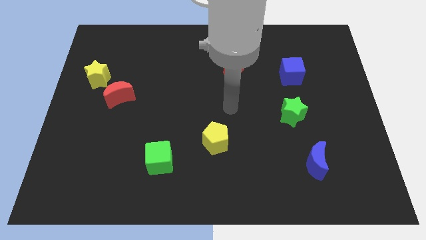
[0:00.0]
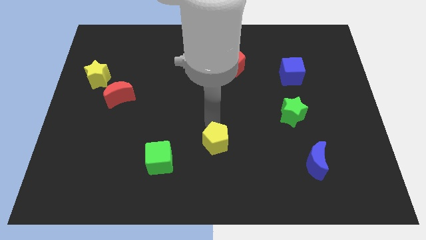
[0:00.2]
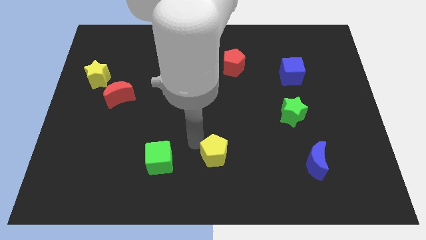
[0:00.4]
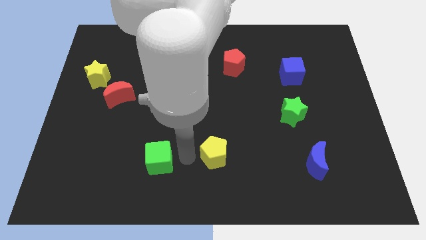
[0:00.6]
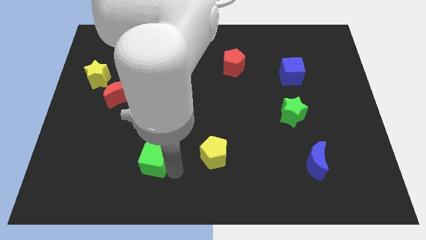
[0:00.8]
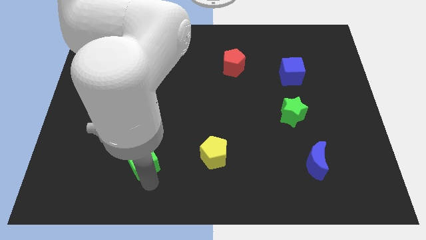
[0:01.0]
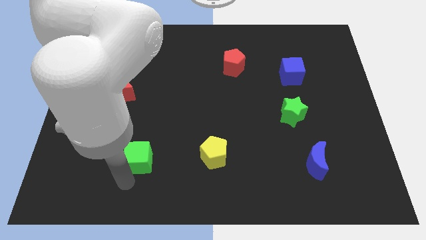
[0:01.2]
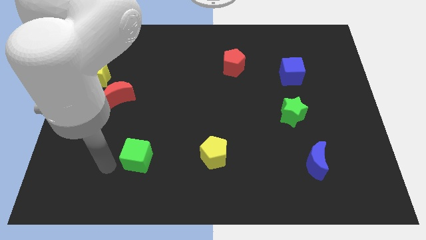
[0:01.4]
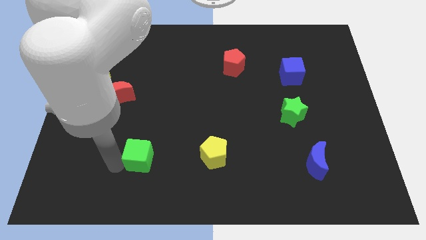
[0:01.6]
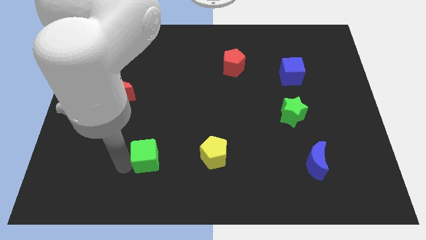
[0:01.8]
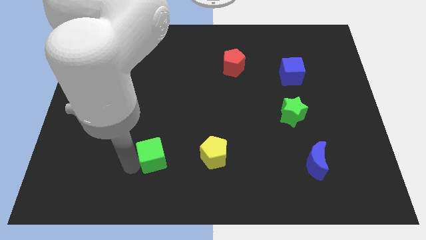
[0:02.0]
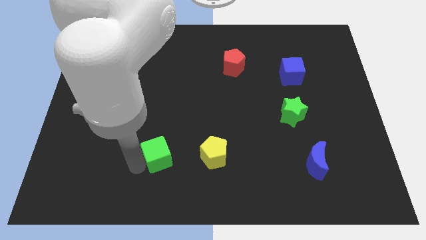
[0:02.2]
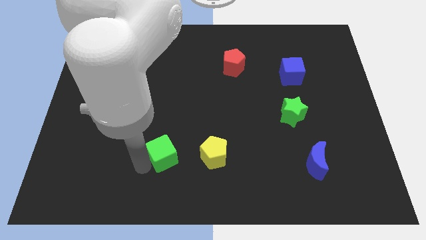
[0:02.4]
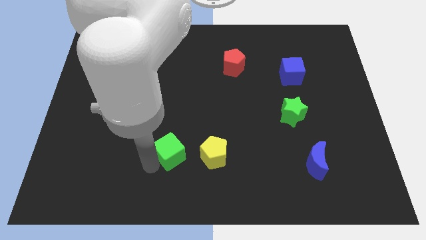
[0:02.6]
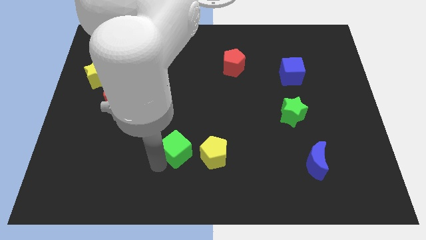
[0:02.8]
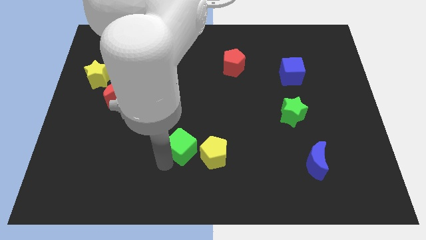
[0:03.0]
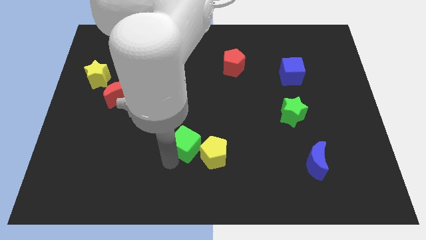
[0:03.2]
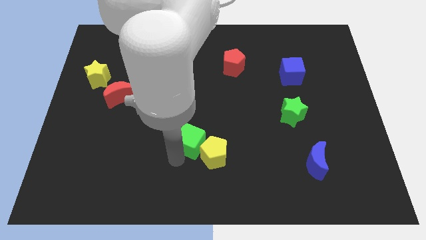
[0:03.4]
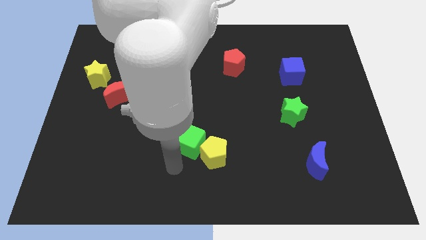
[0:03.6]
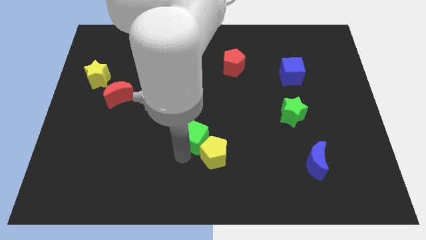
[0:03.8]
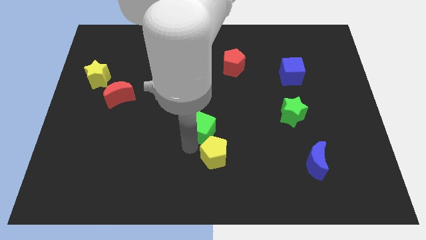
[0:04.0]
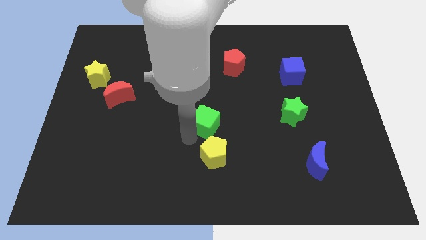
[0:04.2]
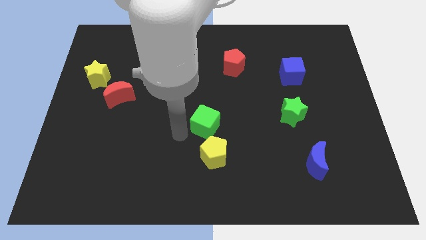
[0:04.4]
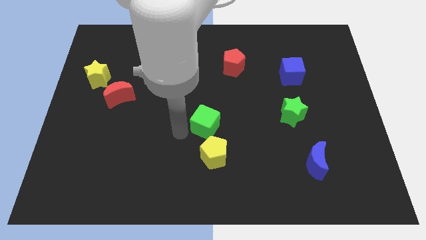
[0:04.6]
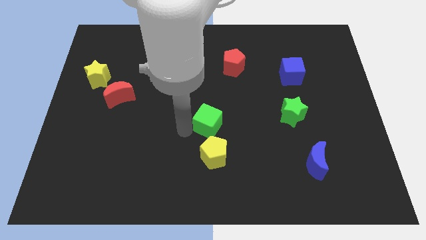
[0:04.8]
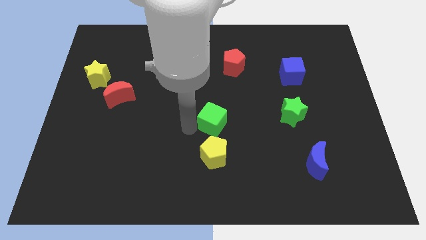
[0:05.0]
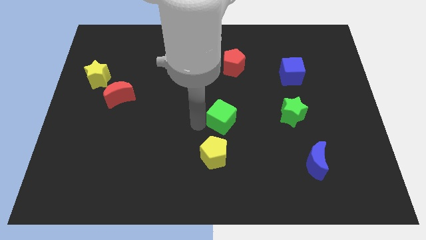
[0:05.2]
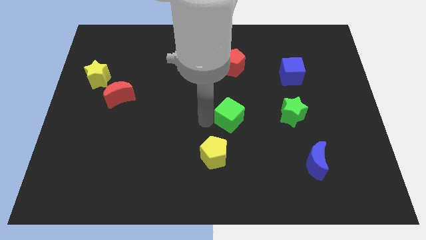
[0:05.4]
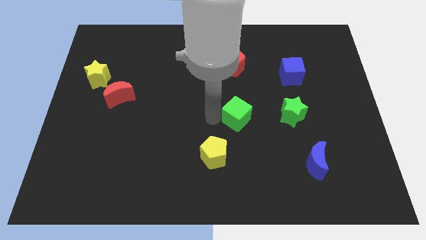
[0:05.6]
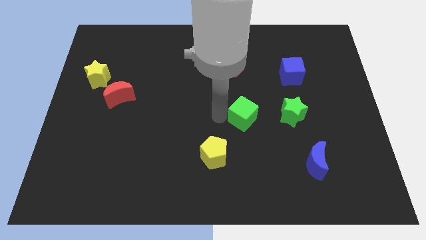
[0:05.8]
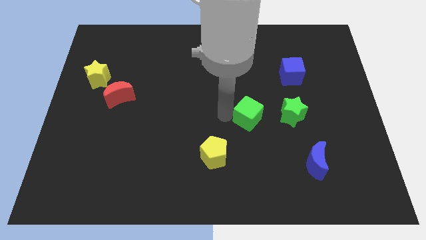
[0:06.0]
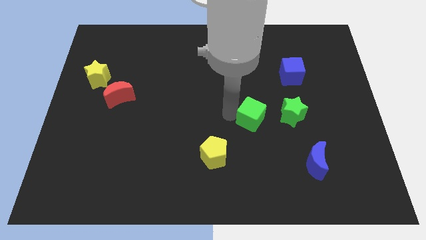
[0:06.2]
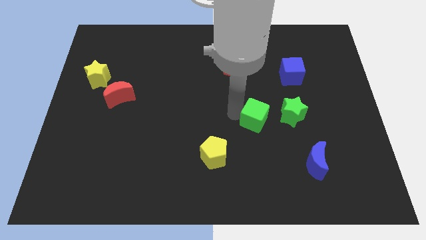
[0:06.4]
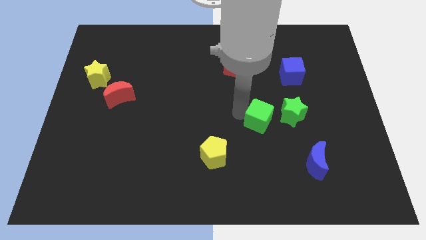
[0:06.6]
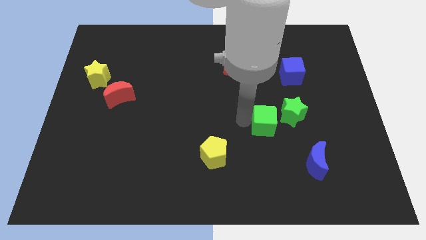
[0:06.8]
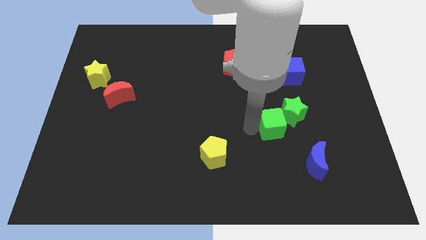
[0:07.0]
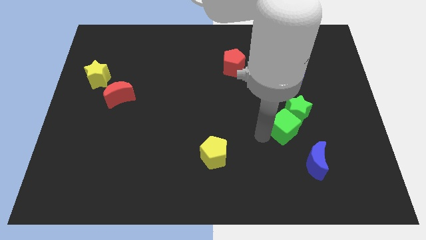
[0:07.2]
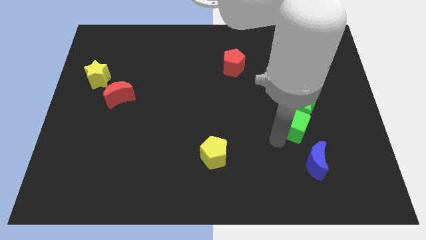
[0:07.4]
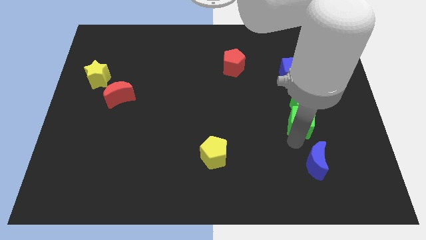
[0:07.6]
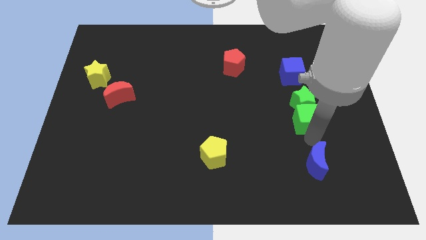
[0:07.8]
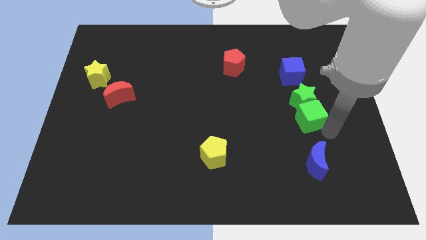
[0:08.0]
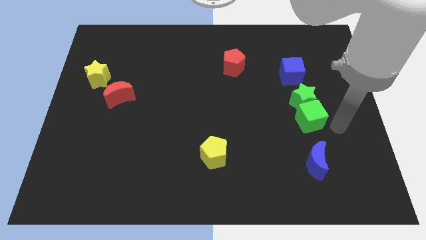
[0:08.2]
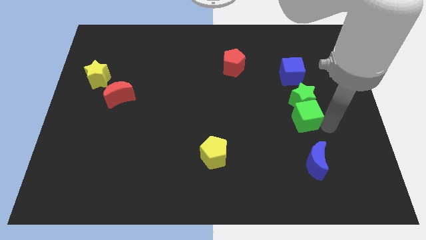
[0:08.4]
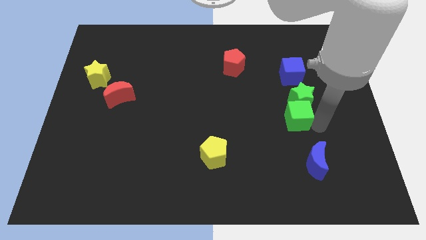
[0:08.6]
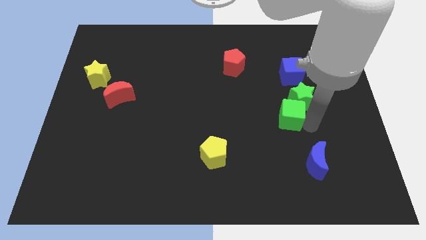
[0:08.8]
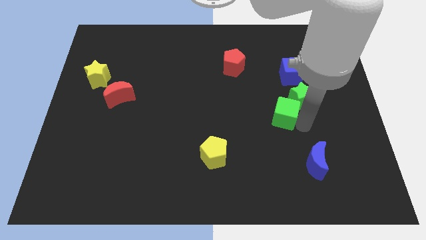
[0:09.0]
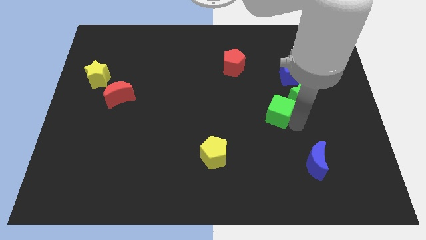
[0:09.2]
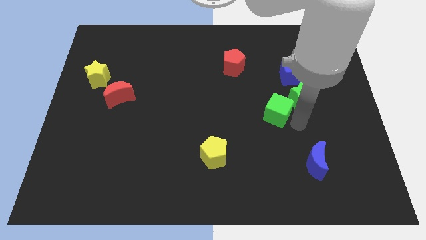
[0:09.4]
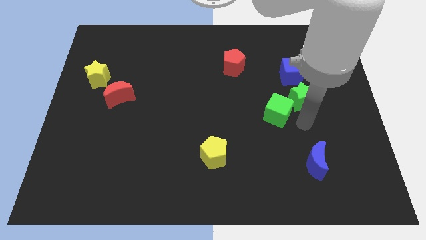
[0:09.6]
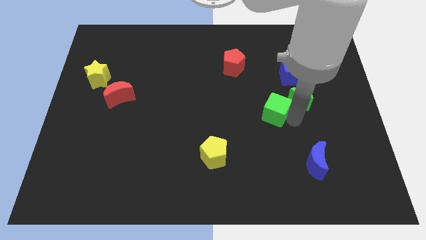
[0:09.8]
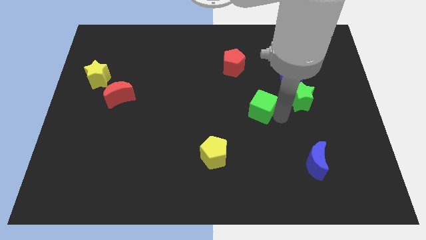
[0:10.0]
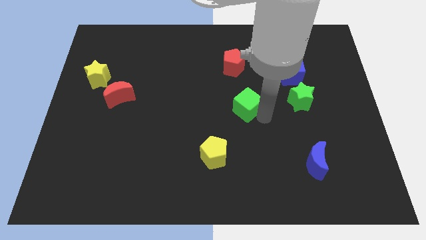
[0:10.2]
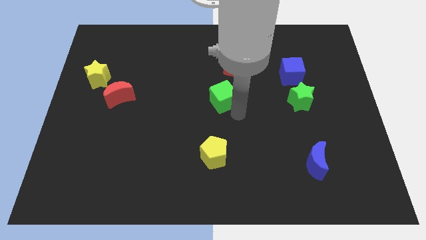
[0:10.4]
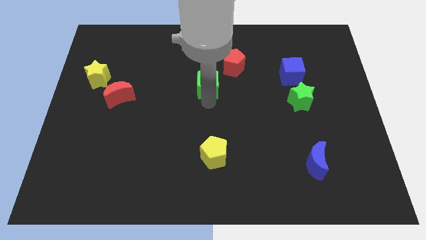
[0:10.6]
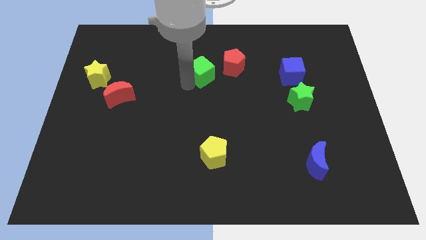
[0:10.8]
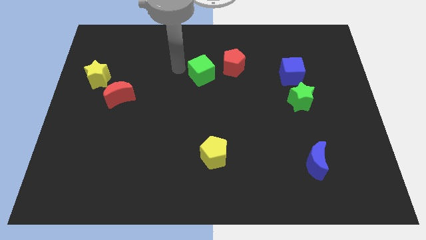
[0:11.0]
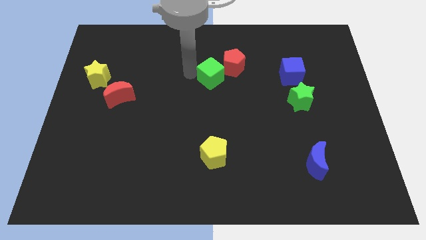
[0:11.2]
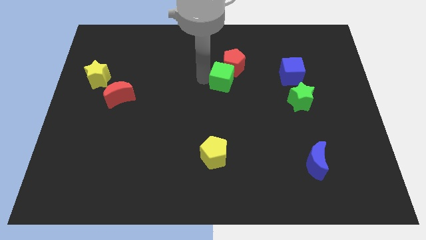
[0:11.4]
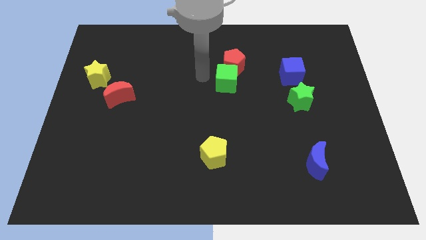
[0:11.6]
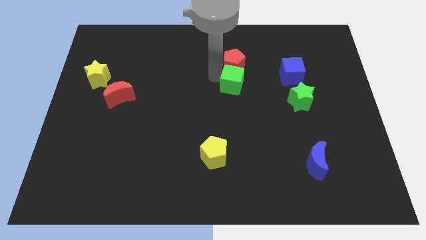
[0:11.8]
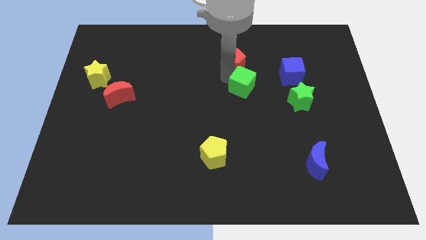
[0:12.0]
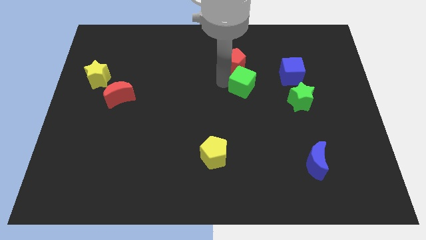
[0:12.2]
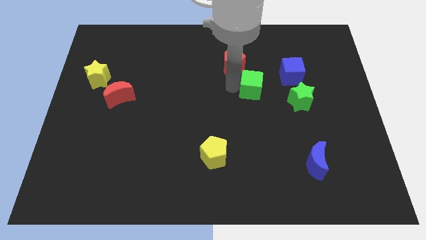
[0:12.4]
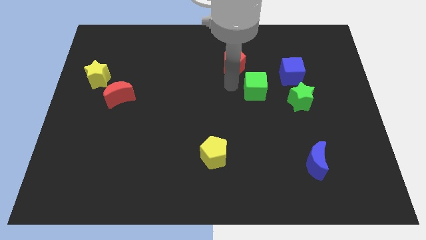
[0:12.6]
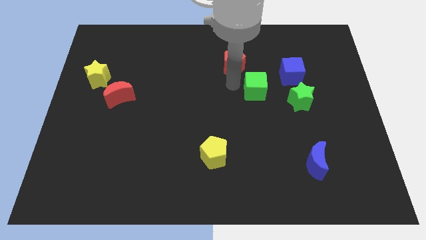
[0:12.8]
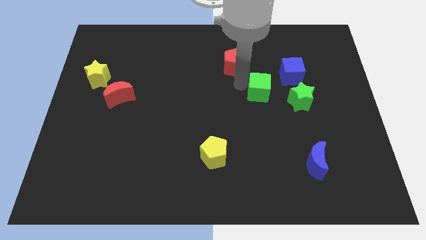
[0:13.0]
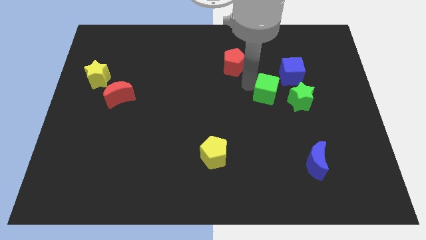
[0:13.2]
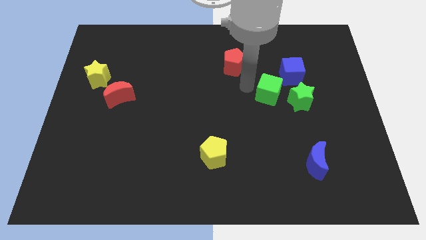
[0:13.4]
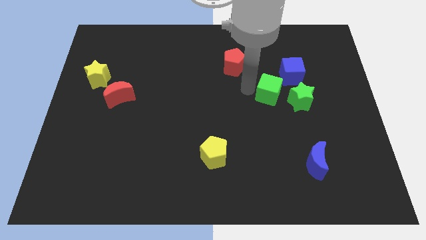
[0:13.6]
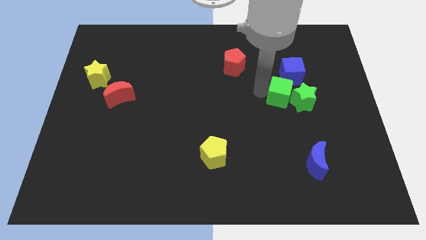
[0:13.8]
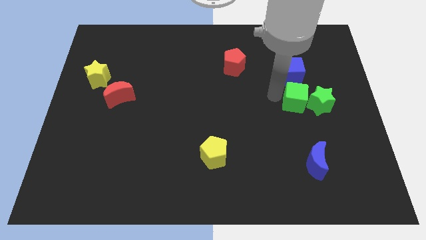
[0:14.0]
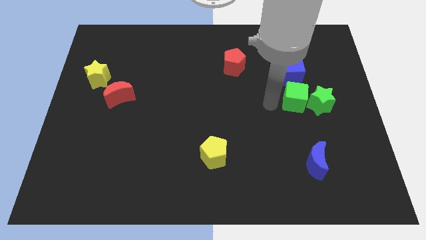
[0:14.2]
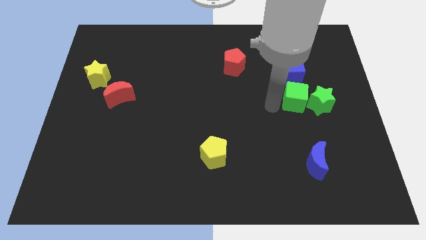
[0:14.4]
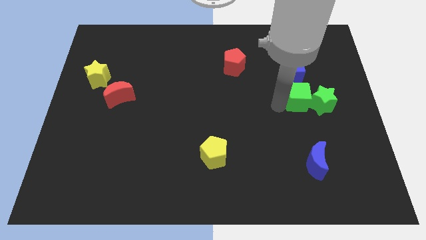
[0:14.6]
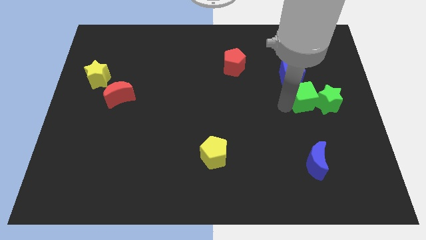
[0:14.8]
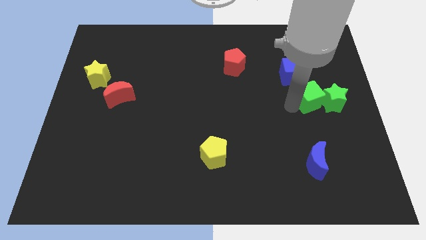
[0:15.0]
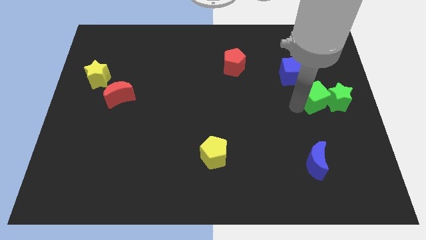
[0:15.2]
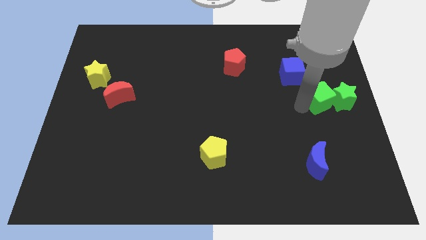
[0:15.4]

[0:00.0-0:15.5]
put the green cube to the center right
